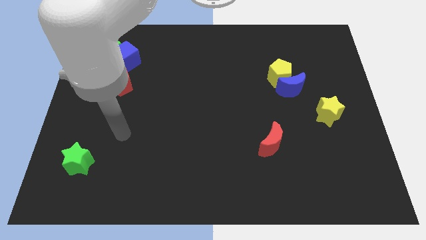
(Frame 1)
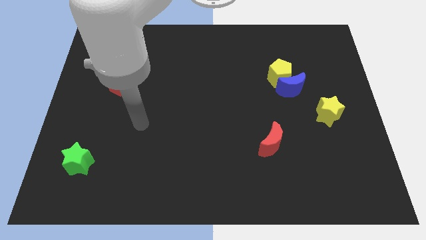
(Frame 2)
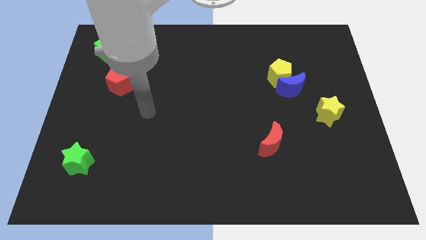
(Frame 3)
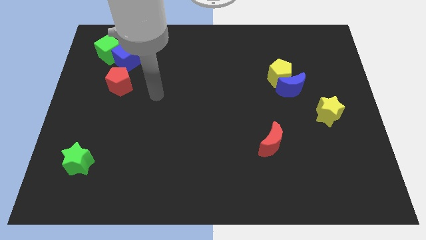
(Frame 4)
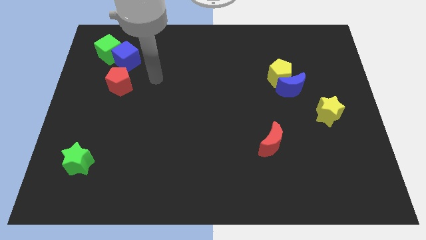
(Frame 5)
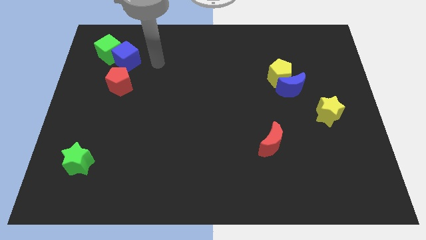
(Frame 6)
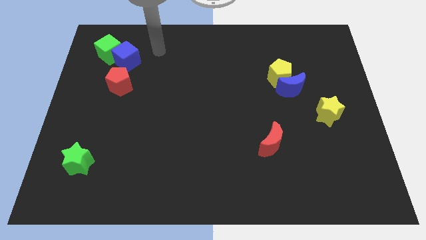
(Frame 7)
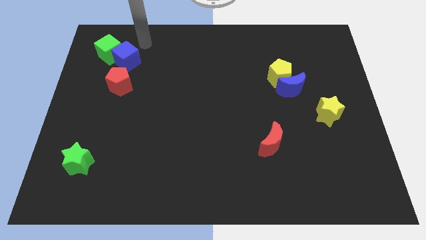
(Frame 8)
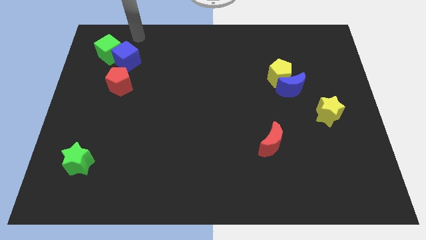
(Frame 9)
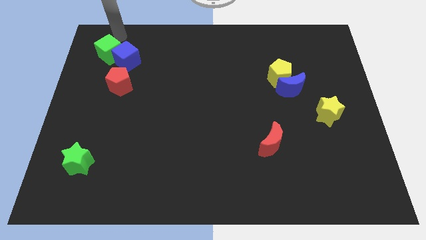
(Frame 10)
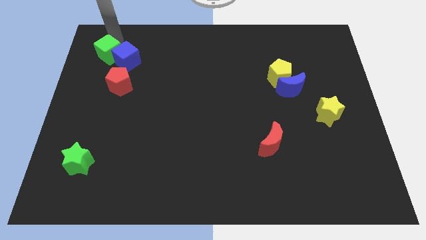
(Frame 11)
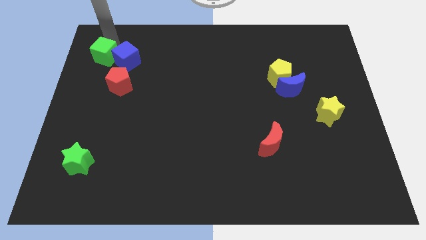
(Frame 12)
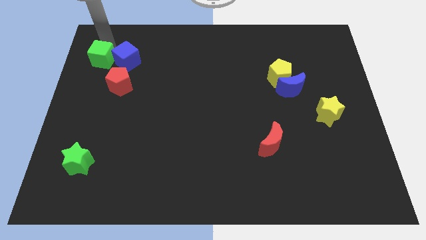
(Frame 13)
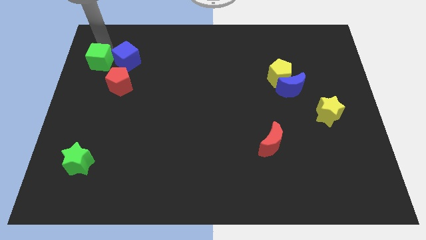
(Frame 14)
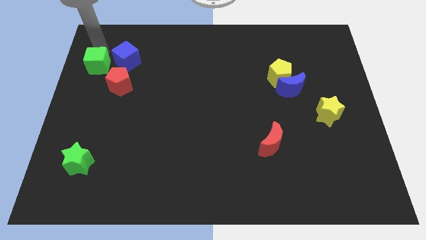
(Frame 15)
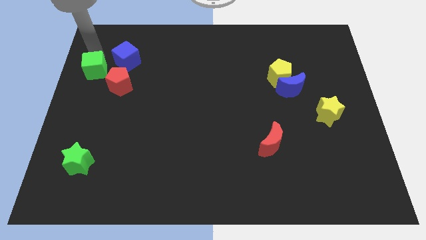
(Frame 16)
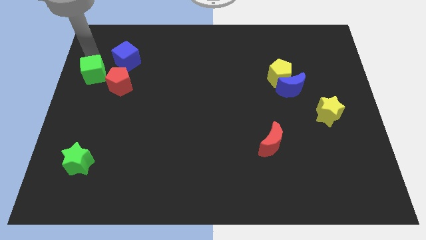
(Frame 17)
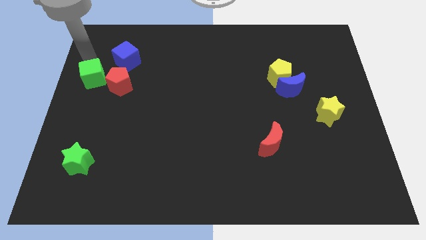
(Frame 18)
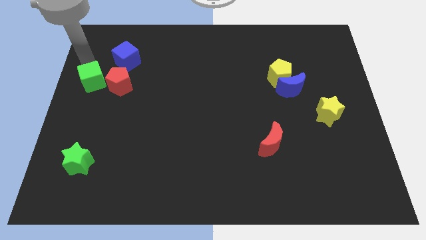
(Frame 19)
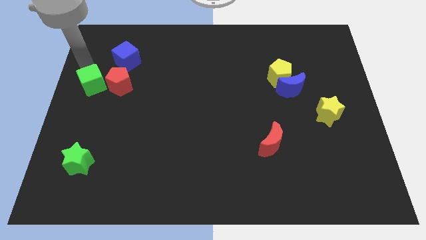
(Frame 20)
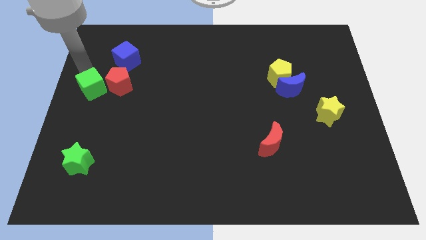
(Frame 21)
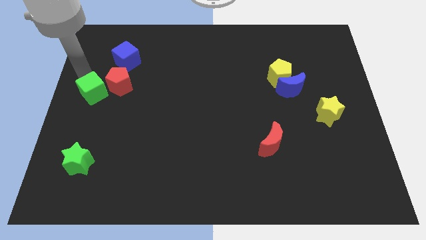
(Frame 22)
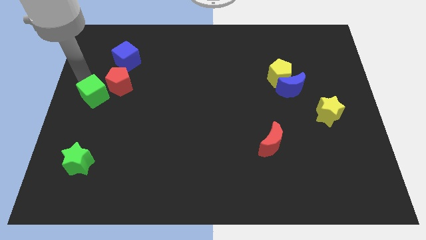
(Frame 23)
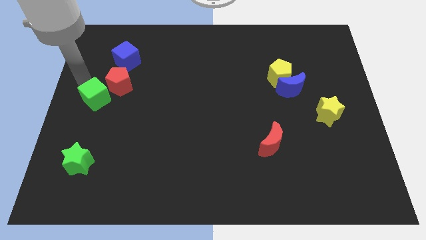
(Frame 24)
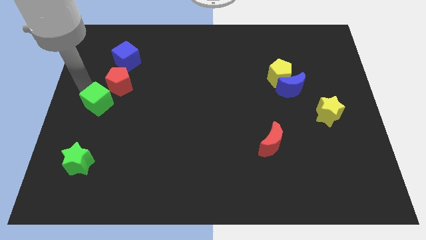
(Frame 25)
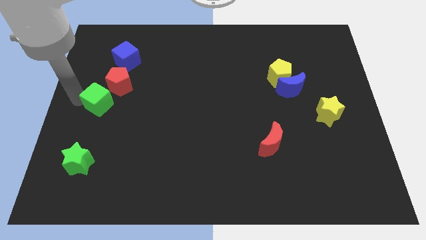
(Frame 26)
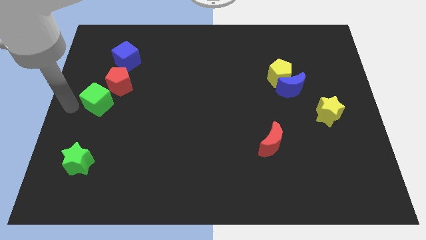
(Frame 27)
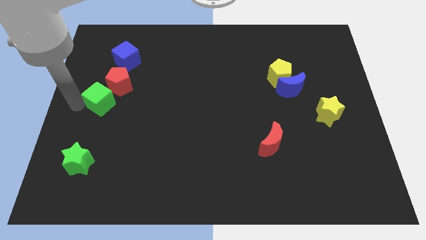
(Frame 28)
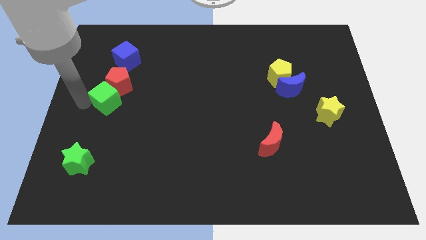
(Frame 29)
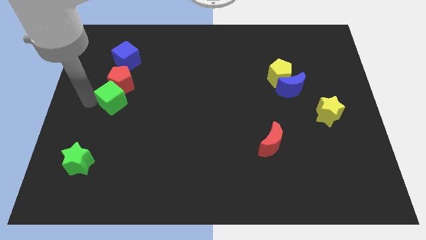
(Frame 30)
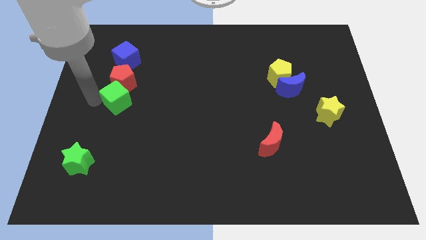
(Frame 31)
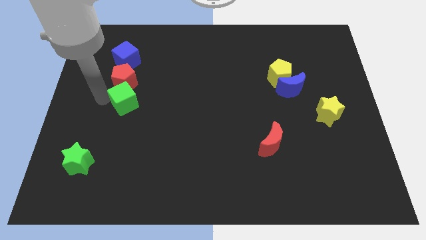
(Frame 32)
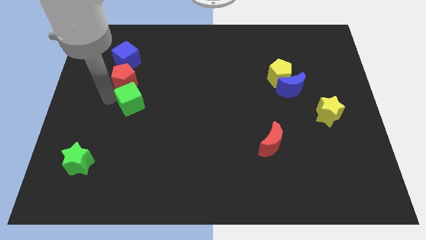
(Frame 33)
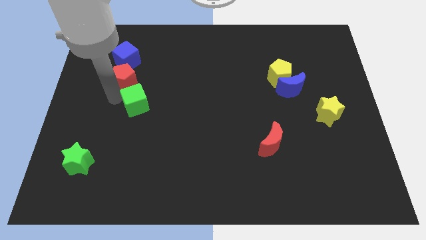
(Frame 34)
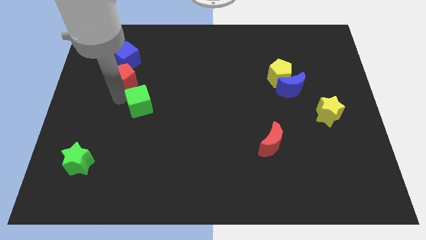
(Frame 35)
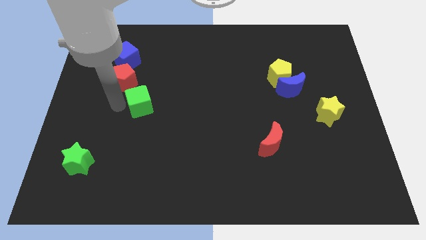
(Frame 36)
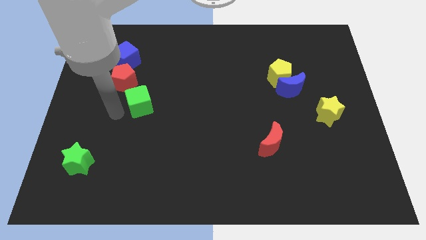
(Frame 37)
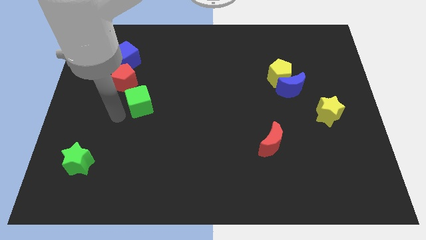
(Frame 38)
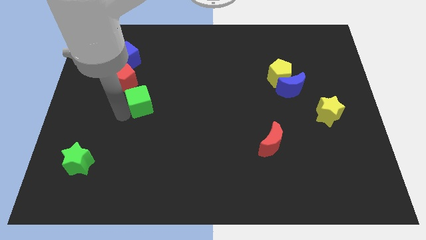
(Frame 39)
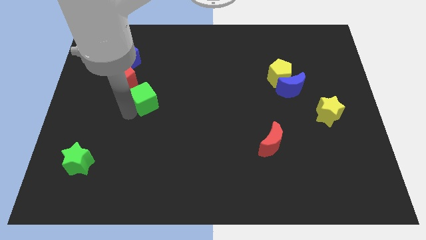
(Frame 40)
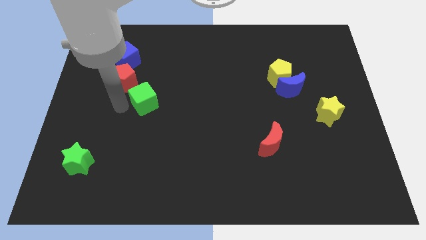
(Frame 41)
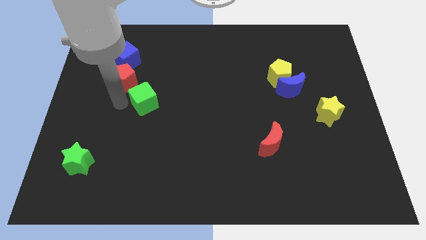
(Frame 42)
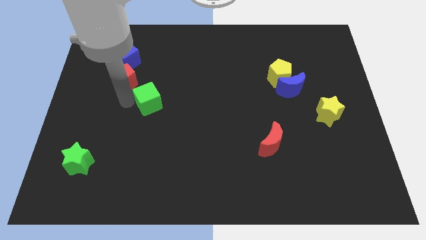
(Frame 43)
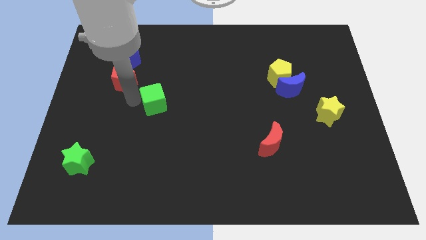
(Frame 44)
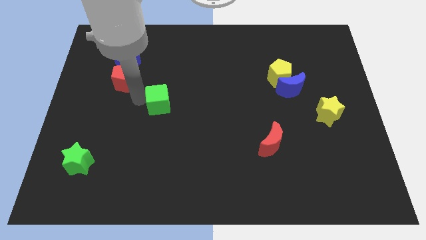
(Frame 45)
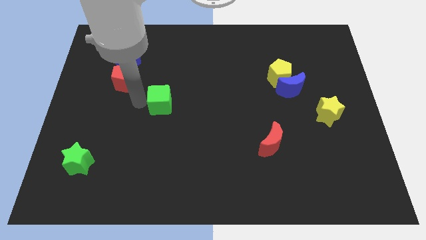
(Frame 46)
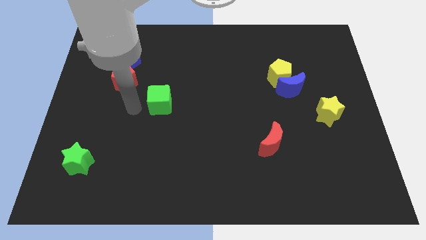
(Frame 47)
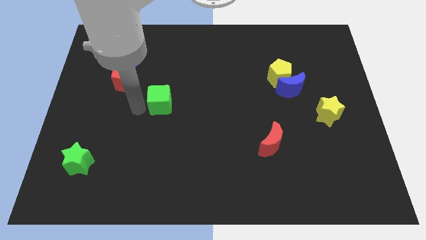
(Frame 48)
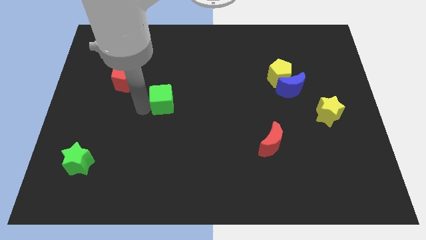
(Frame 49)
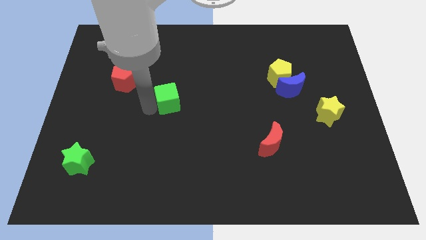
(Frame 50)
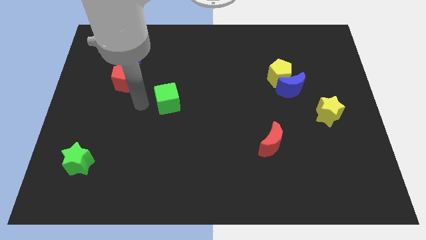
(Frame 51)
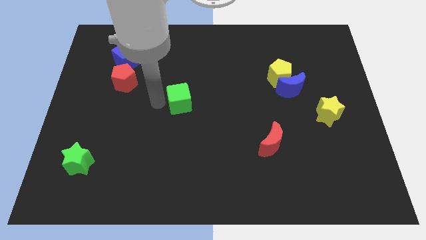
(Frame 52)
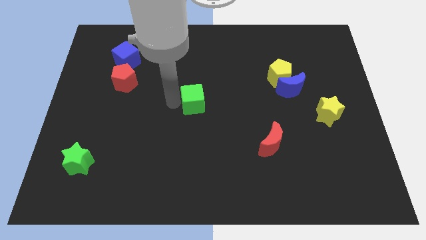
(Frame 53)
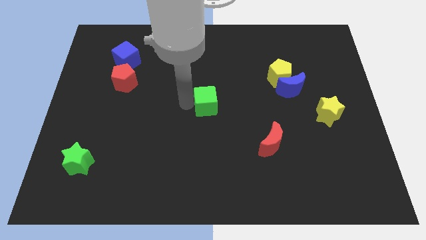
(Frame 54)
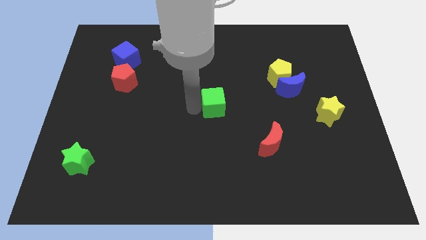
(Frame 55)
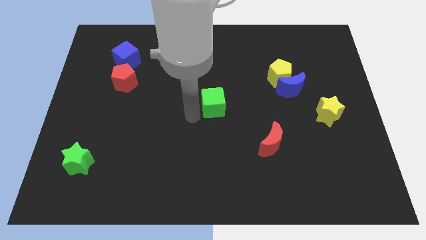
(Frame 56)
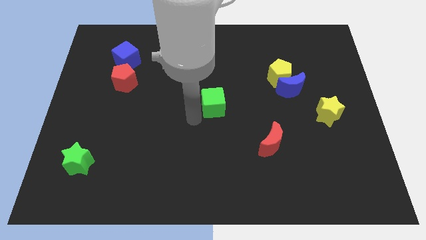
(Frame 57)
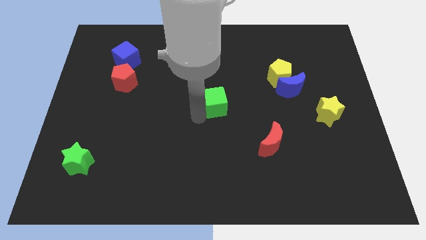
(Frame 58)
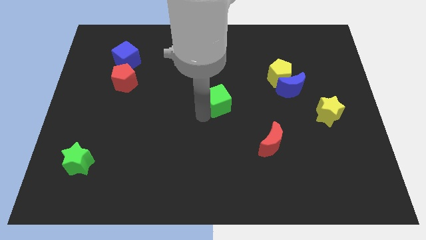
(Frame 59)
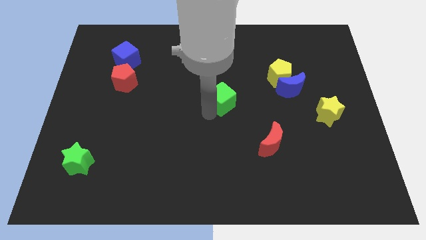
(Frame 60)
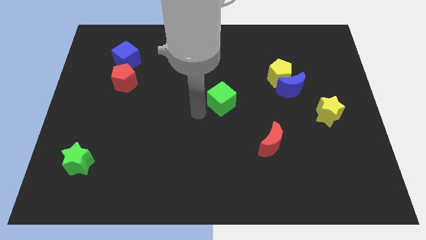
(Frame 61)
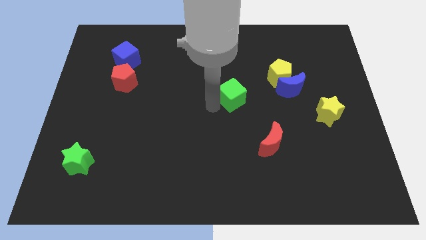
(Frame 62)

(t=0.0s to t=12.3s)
move the green cube to the left side of the blue moon
